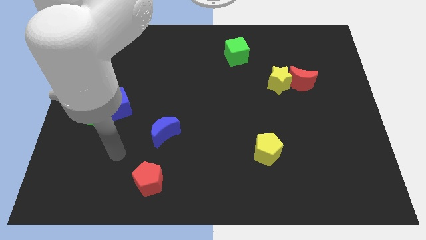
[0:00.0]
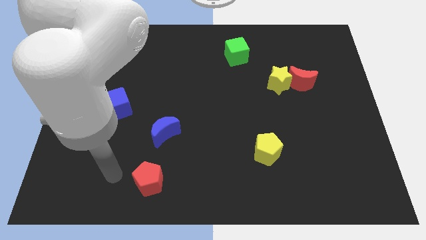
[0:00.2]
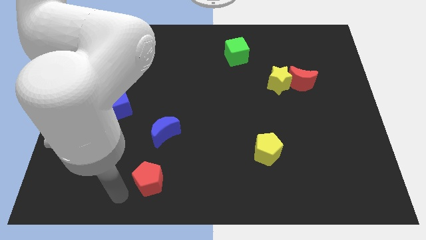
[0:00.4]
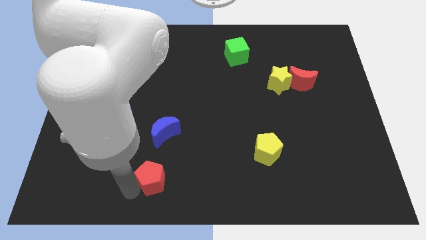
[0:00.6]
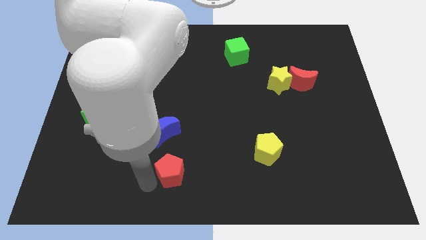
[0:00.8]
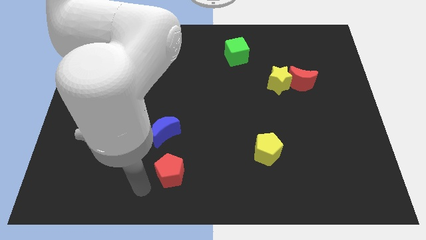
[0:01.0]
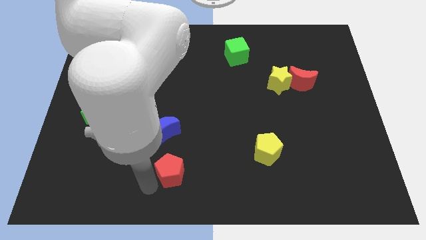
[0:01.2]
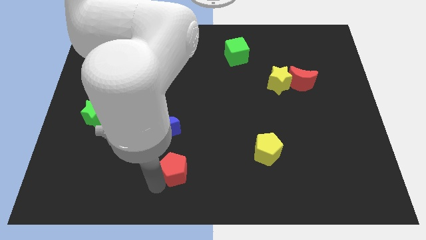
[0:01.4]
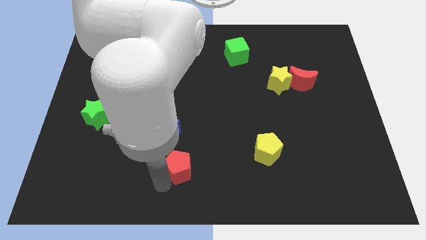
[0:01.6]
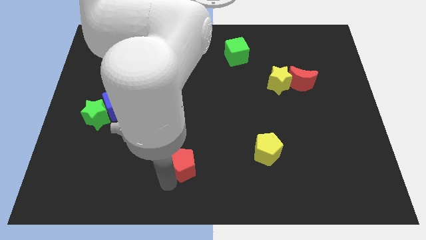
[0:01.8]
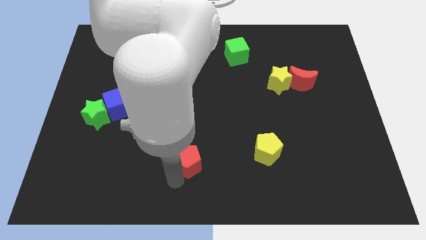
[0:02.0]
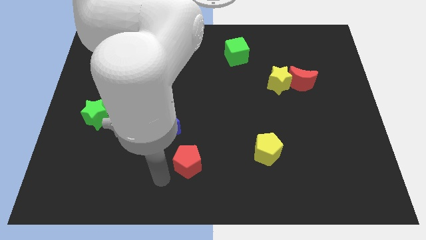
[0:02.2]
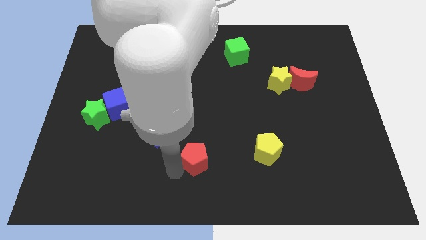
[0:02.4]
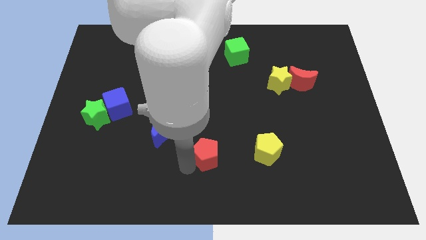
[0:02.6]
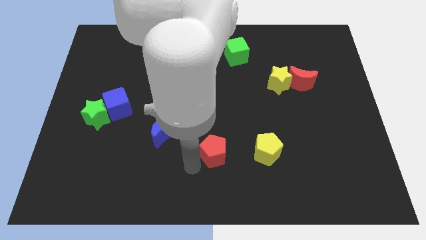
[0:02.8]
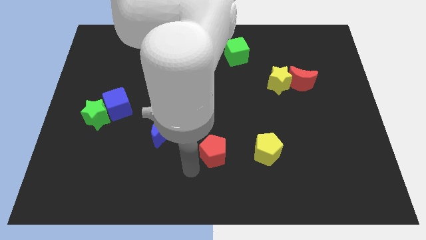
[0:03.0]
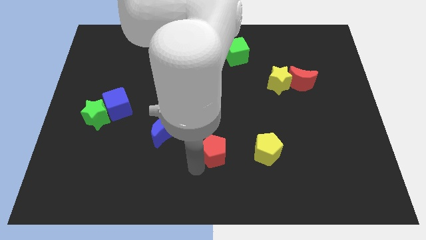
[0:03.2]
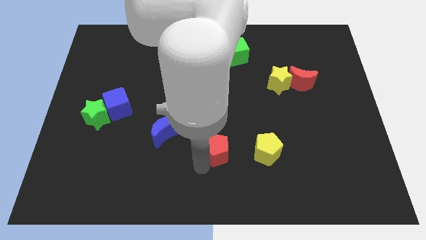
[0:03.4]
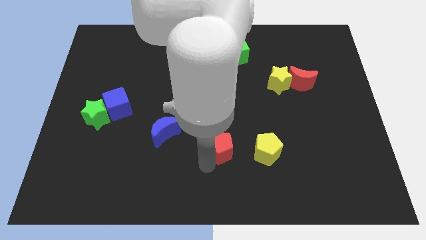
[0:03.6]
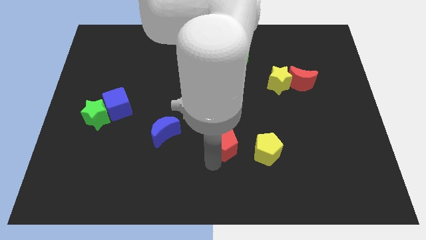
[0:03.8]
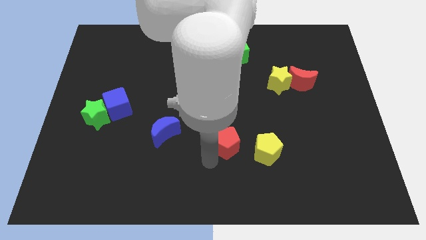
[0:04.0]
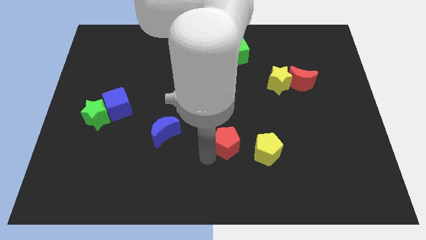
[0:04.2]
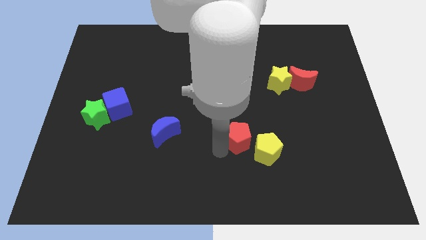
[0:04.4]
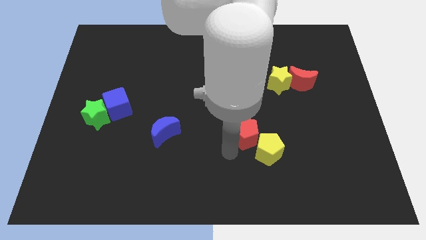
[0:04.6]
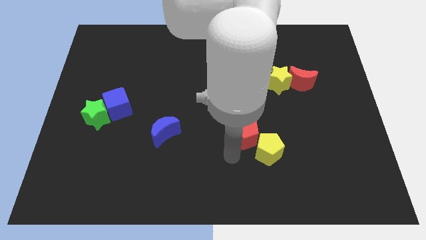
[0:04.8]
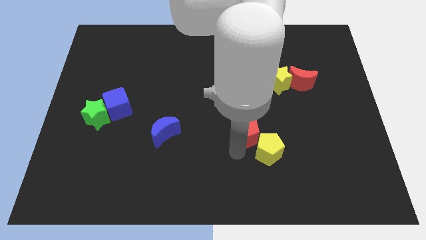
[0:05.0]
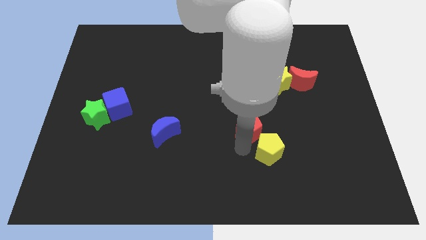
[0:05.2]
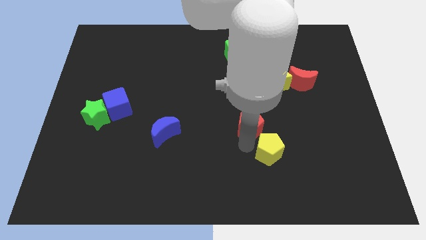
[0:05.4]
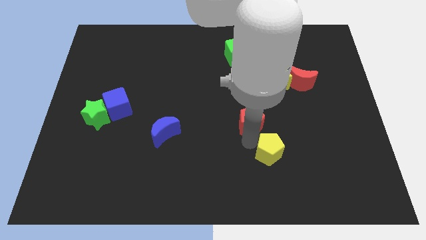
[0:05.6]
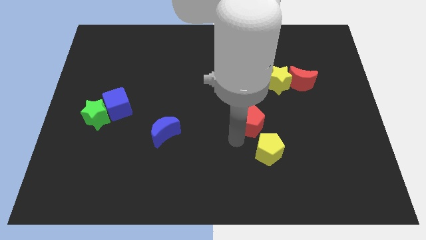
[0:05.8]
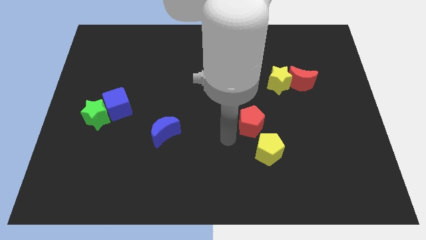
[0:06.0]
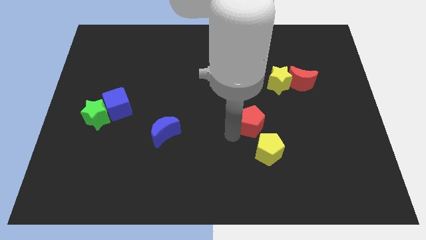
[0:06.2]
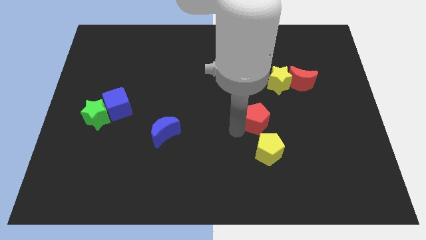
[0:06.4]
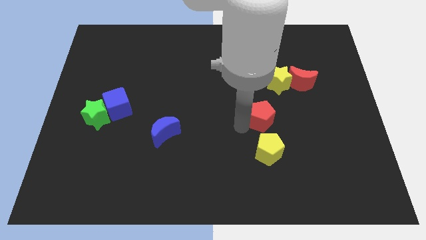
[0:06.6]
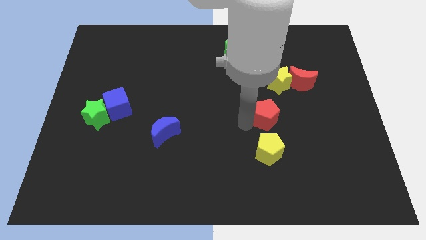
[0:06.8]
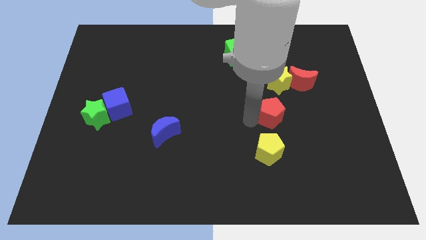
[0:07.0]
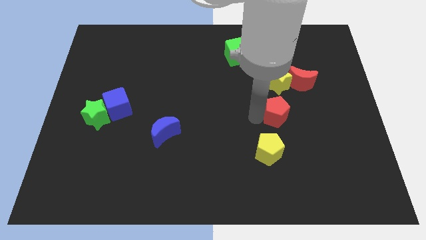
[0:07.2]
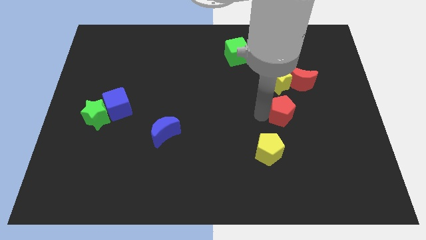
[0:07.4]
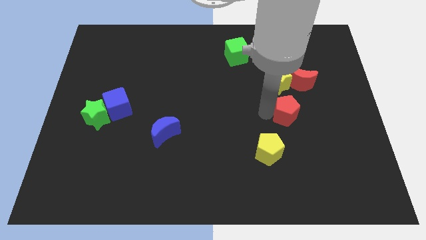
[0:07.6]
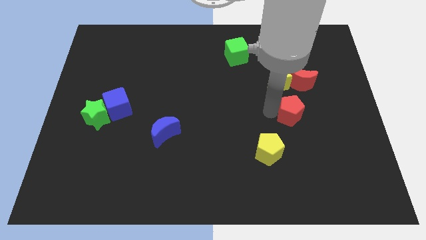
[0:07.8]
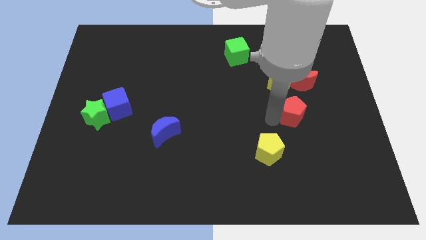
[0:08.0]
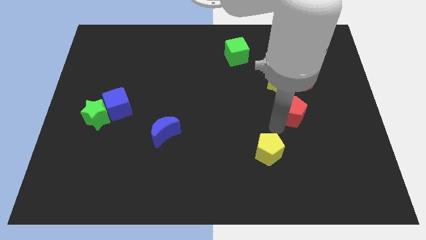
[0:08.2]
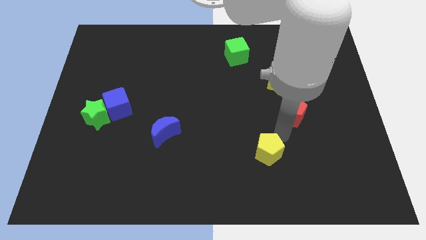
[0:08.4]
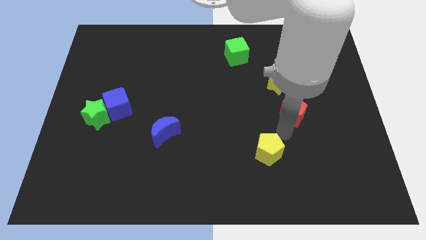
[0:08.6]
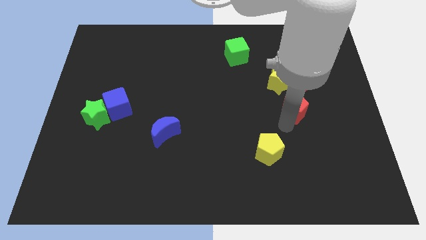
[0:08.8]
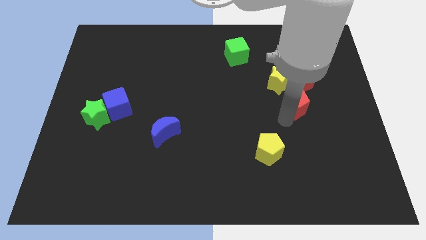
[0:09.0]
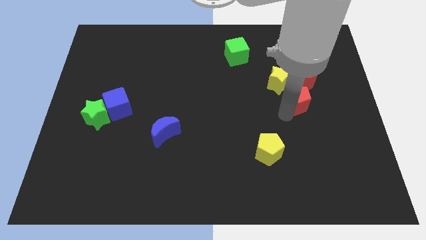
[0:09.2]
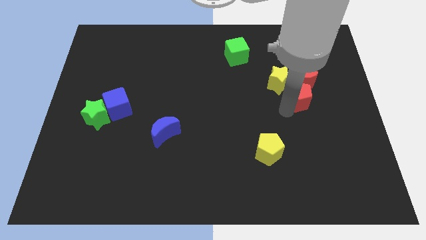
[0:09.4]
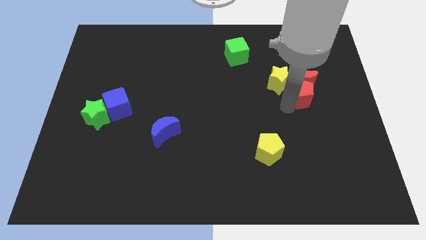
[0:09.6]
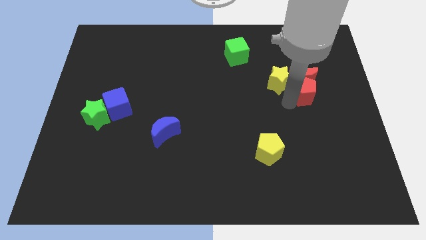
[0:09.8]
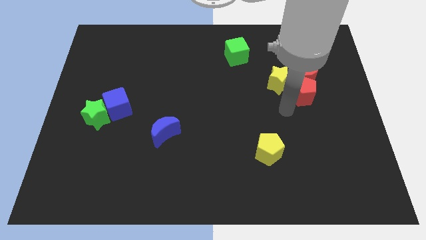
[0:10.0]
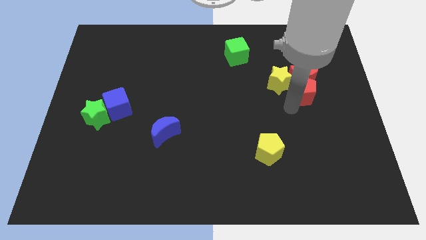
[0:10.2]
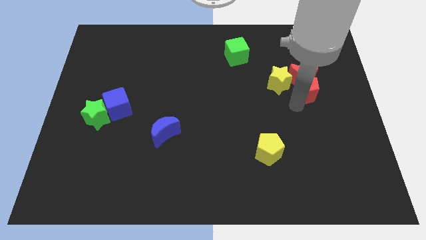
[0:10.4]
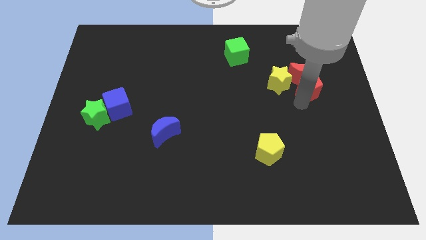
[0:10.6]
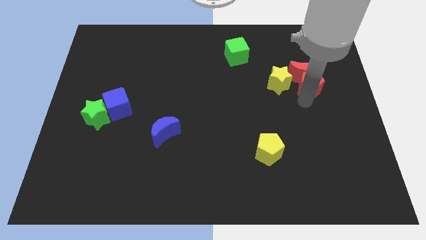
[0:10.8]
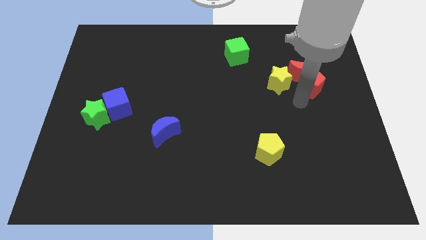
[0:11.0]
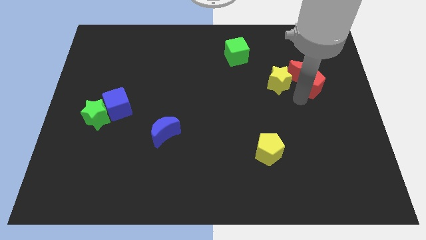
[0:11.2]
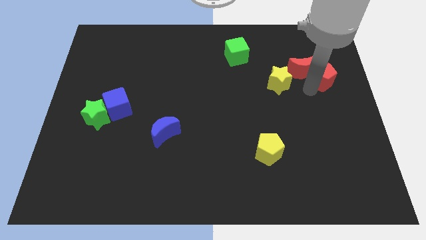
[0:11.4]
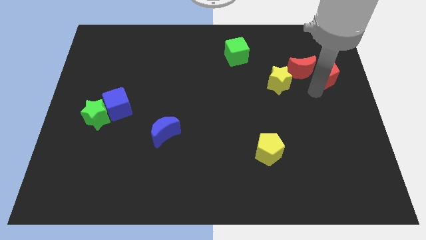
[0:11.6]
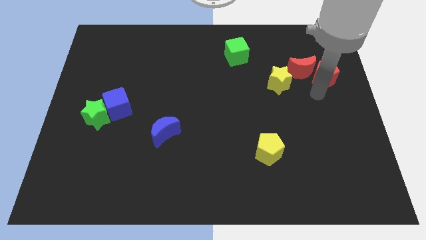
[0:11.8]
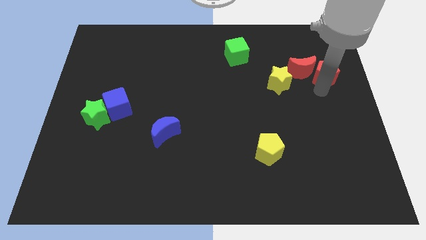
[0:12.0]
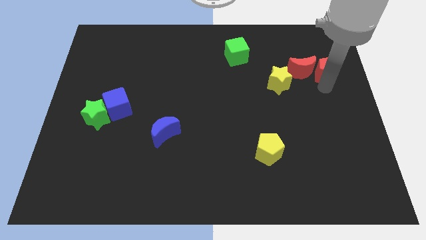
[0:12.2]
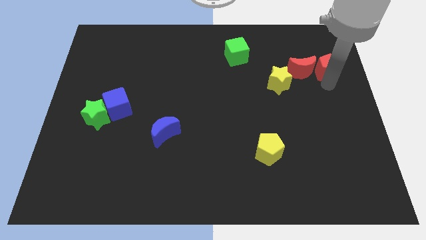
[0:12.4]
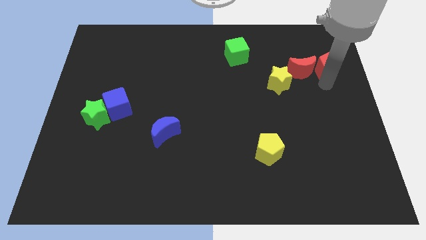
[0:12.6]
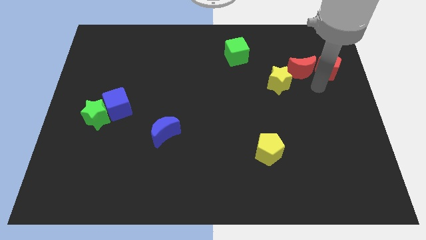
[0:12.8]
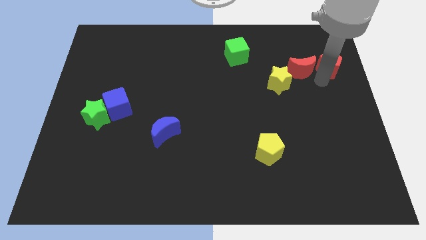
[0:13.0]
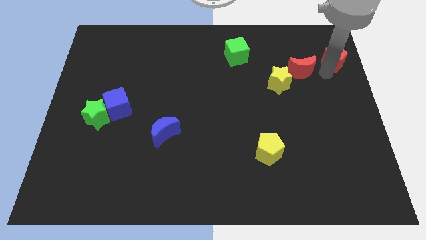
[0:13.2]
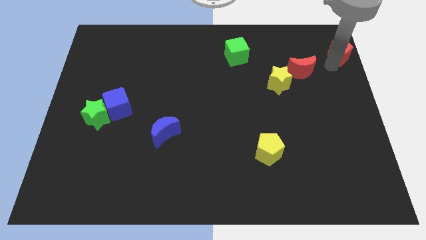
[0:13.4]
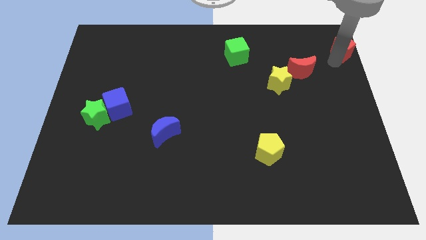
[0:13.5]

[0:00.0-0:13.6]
push the red pentagon to the top right corner
